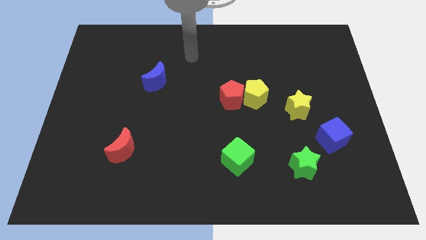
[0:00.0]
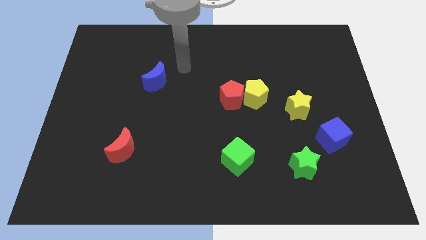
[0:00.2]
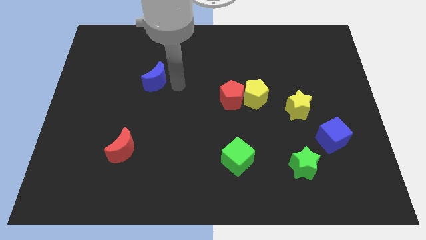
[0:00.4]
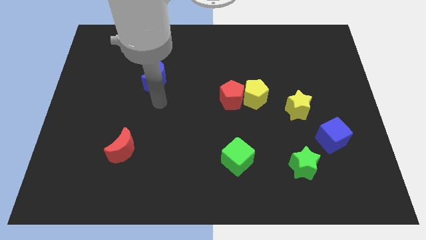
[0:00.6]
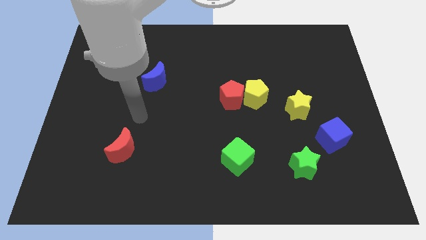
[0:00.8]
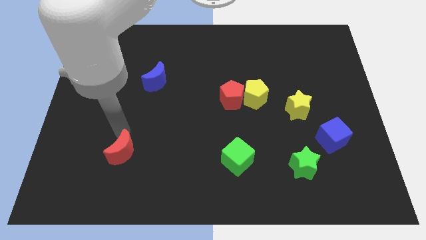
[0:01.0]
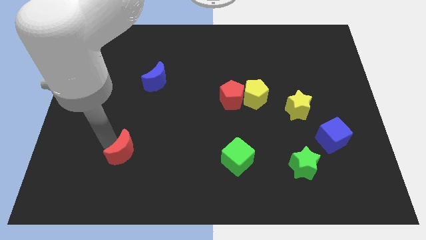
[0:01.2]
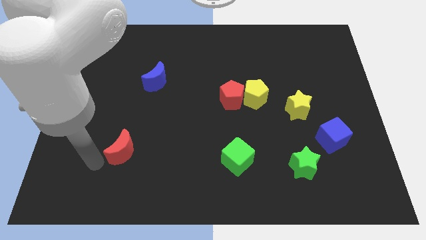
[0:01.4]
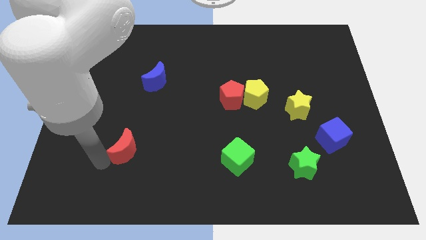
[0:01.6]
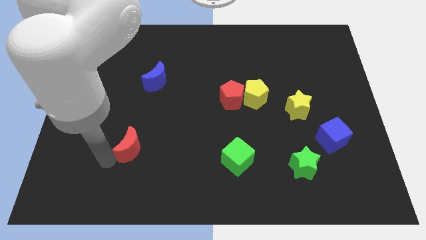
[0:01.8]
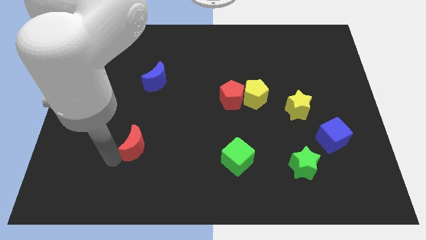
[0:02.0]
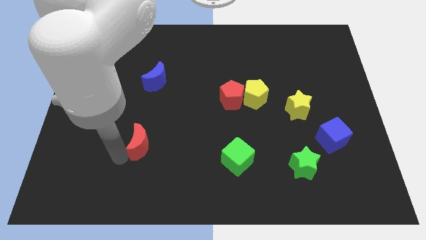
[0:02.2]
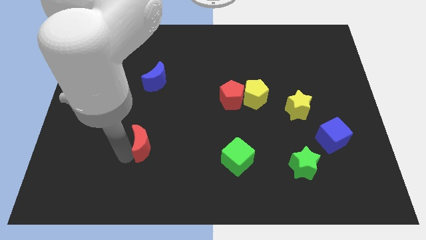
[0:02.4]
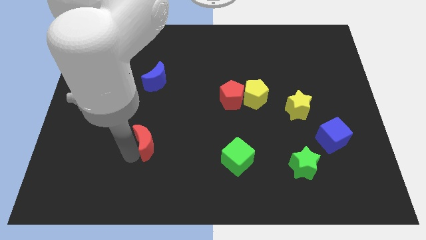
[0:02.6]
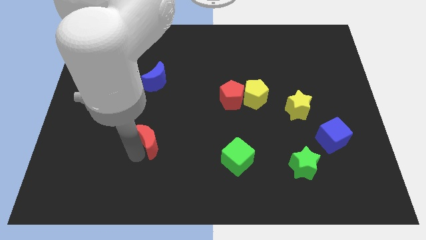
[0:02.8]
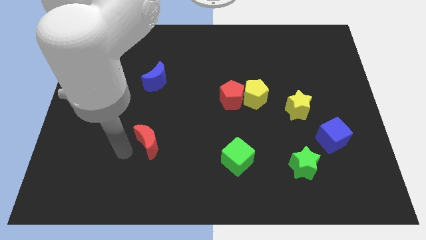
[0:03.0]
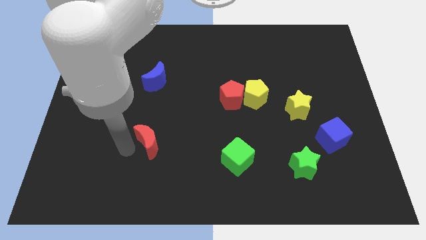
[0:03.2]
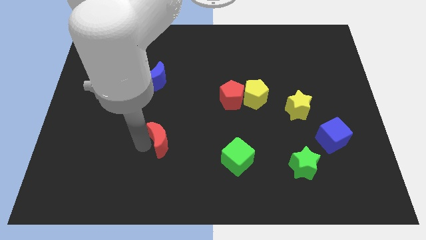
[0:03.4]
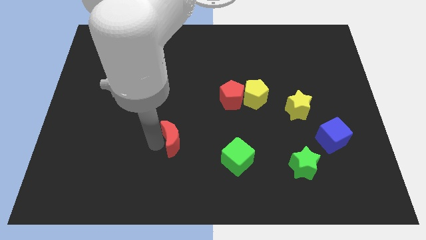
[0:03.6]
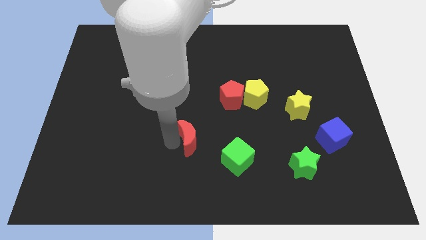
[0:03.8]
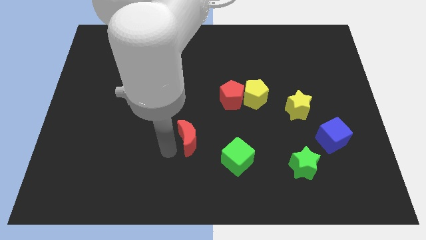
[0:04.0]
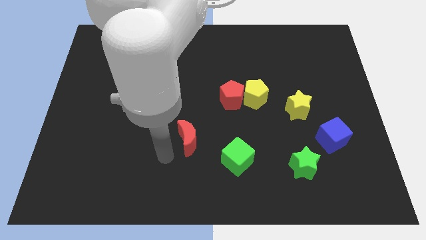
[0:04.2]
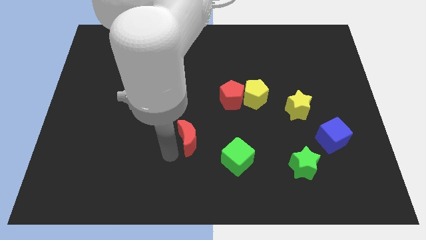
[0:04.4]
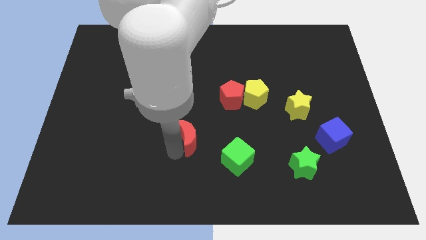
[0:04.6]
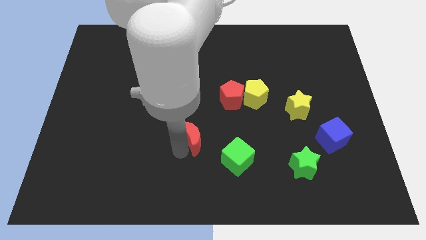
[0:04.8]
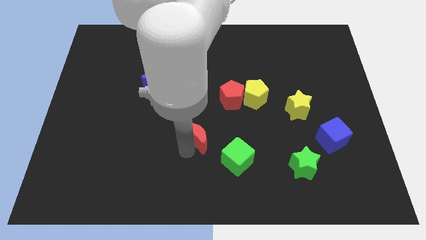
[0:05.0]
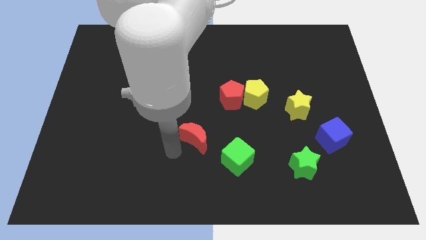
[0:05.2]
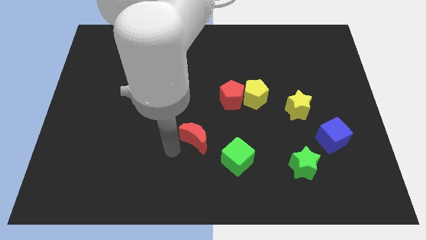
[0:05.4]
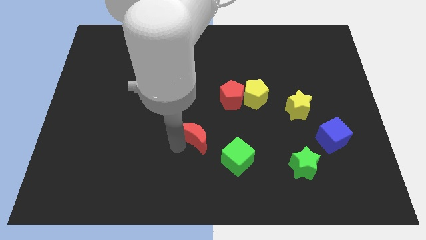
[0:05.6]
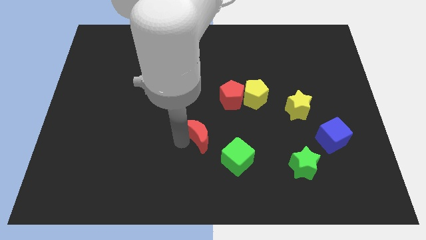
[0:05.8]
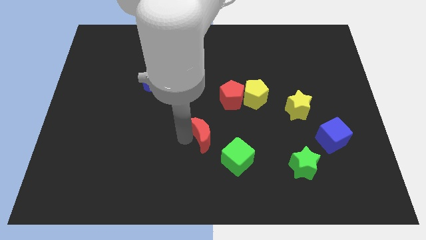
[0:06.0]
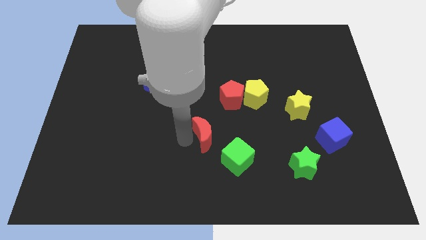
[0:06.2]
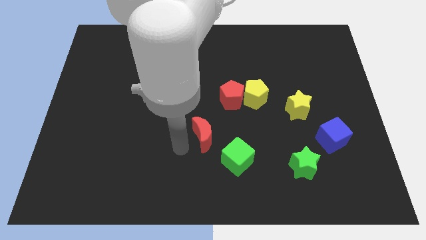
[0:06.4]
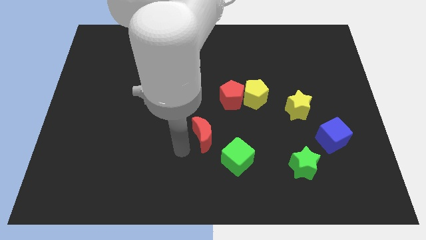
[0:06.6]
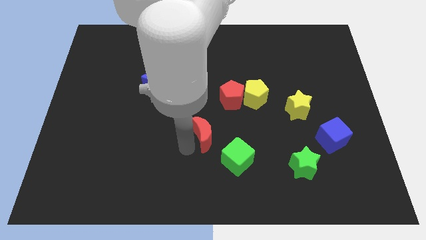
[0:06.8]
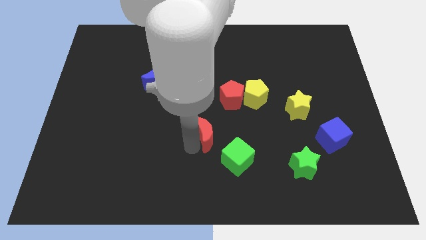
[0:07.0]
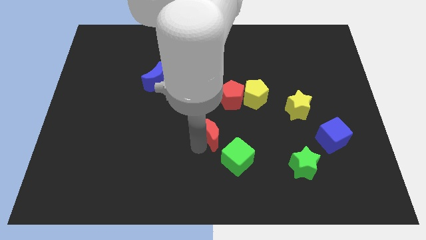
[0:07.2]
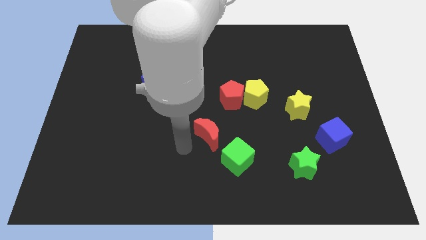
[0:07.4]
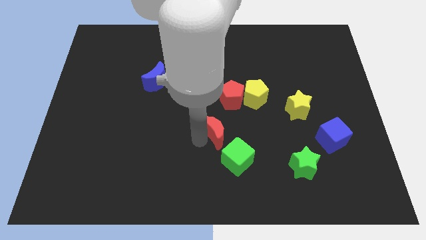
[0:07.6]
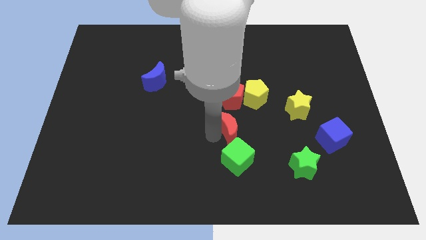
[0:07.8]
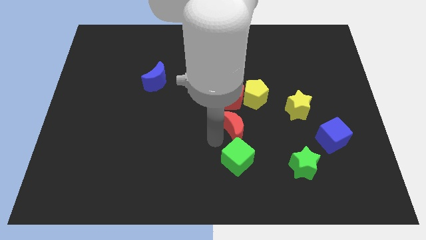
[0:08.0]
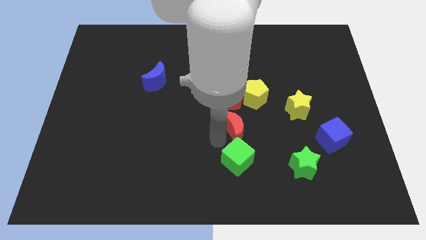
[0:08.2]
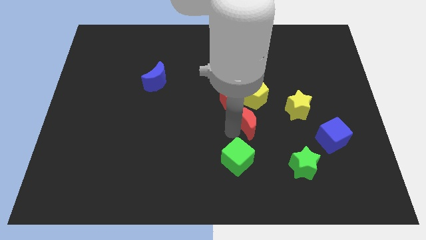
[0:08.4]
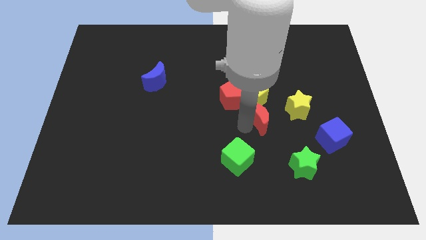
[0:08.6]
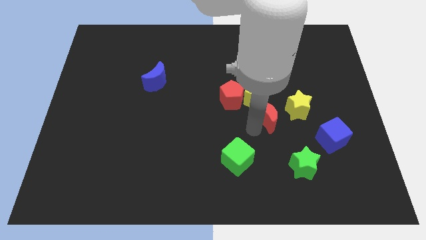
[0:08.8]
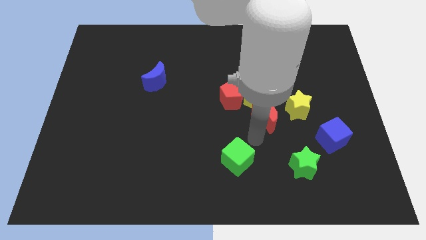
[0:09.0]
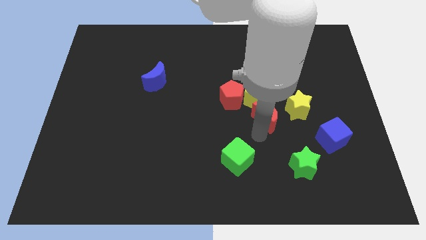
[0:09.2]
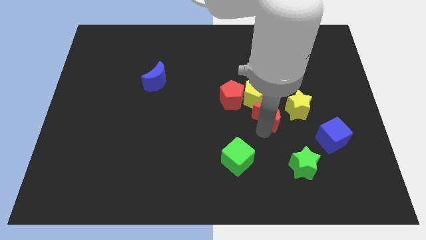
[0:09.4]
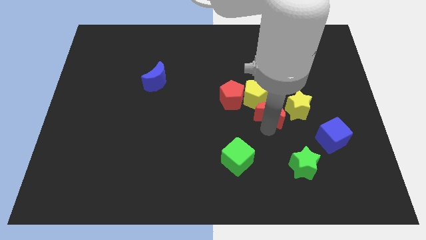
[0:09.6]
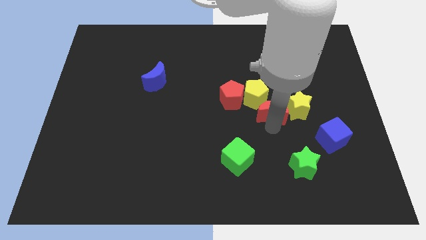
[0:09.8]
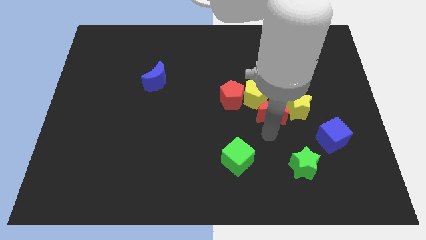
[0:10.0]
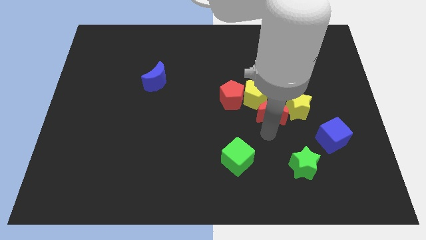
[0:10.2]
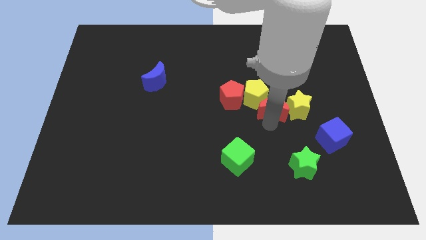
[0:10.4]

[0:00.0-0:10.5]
slide the red moon just right of the yellow pentagon

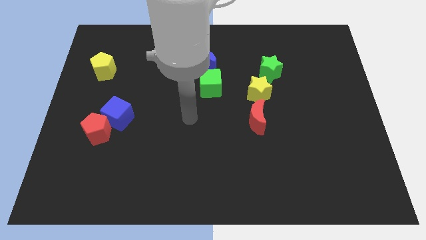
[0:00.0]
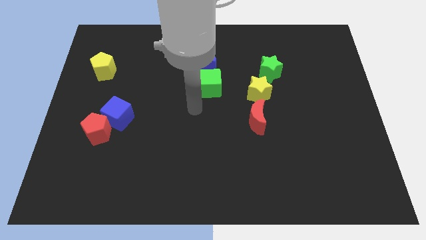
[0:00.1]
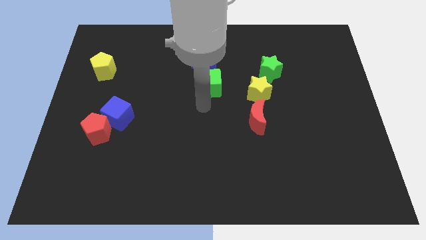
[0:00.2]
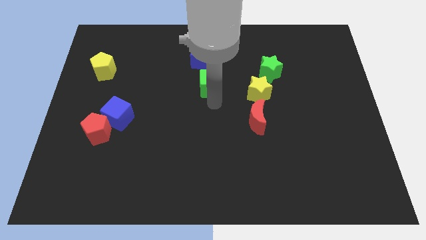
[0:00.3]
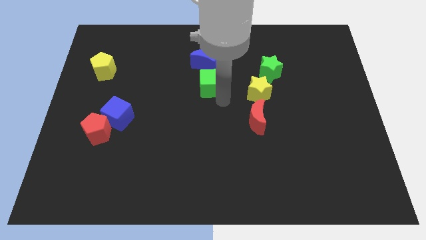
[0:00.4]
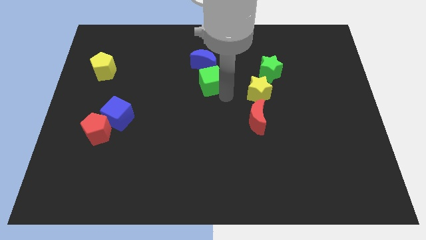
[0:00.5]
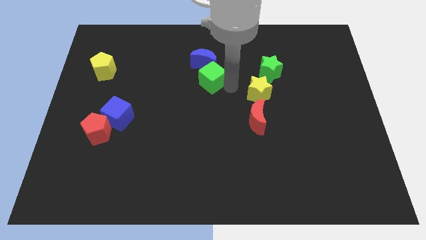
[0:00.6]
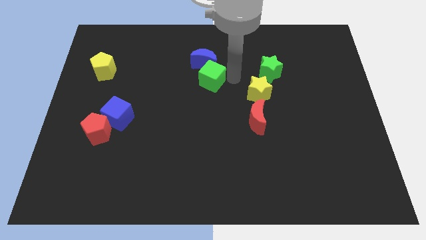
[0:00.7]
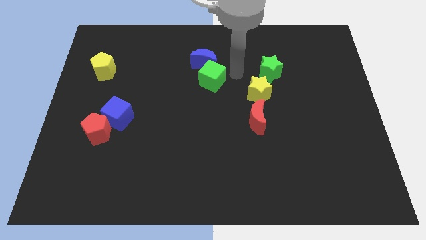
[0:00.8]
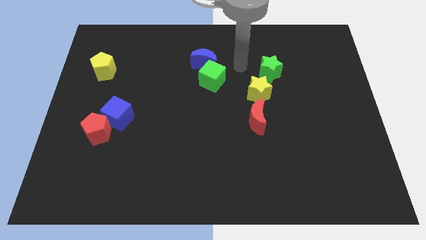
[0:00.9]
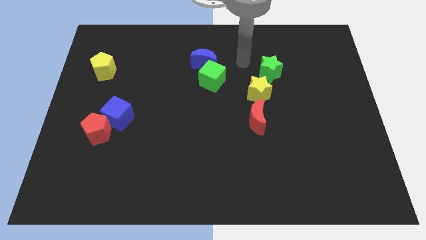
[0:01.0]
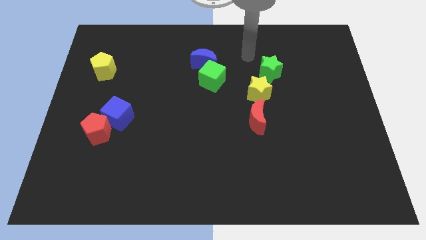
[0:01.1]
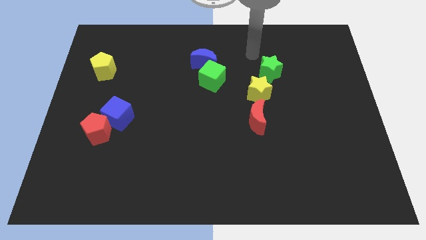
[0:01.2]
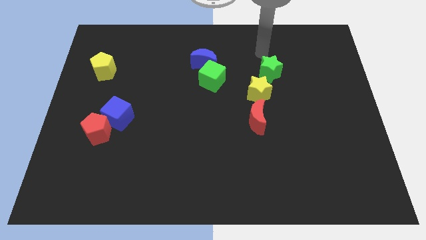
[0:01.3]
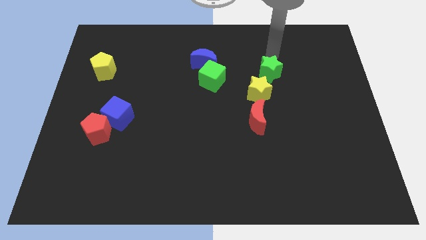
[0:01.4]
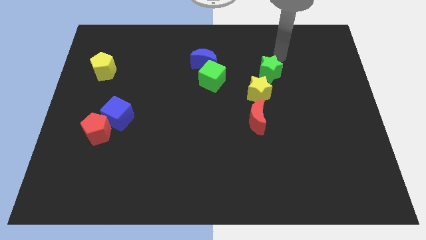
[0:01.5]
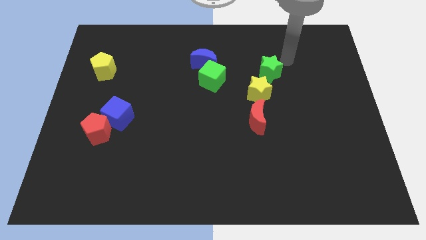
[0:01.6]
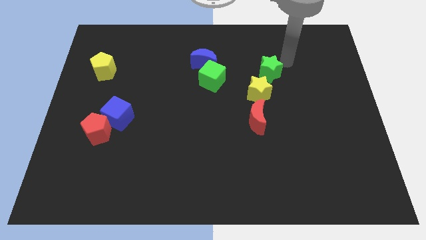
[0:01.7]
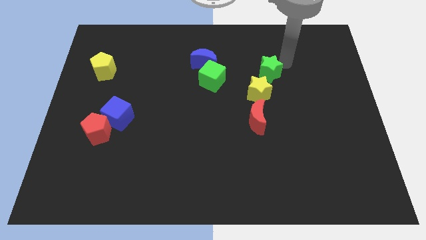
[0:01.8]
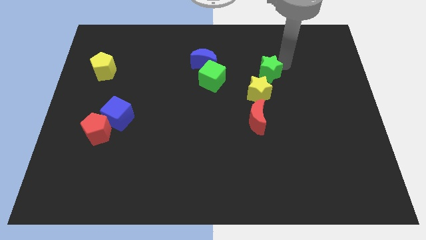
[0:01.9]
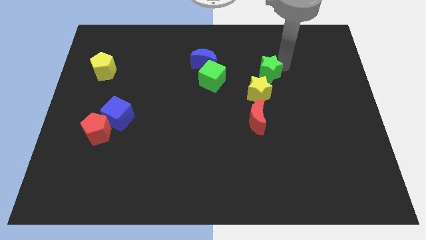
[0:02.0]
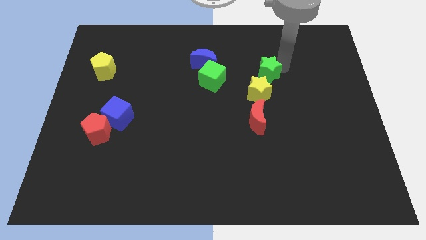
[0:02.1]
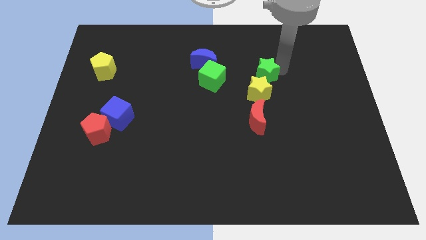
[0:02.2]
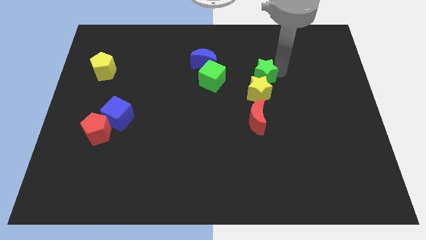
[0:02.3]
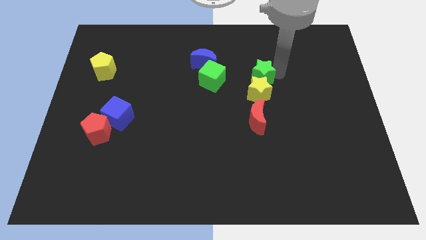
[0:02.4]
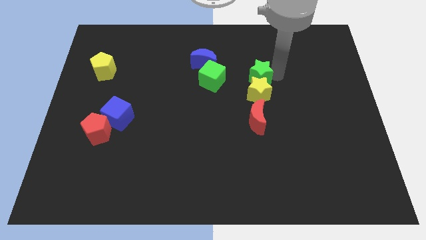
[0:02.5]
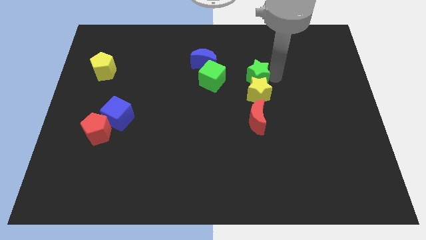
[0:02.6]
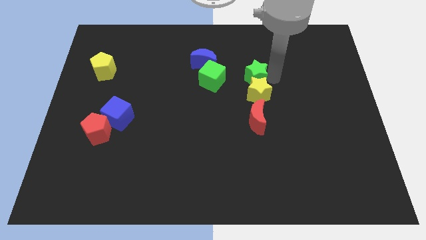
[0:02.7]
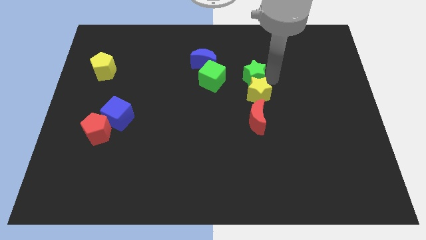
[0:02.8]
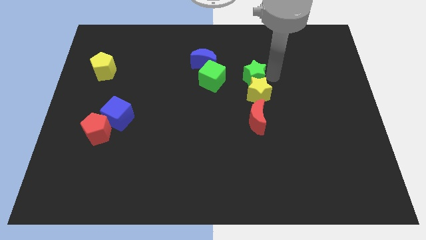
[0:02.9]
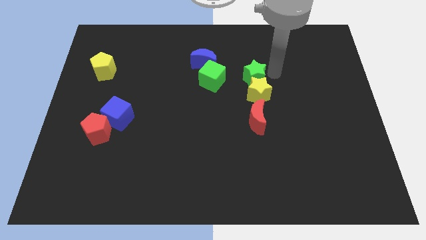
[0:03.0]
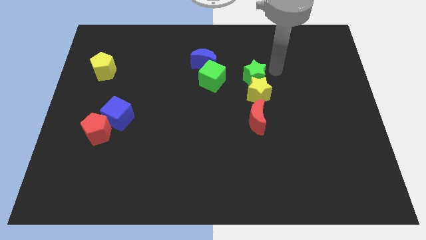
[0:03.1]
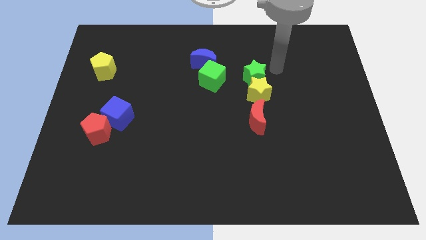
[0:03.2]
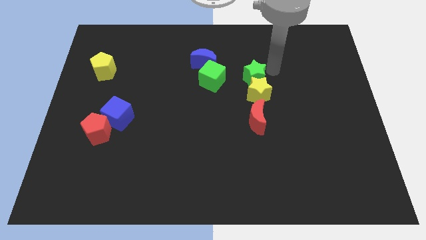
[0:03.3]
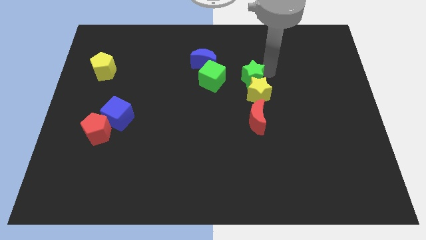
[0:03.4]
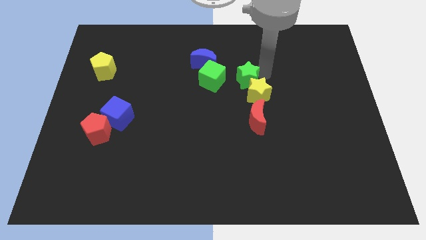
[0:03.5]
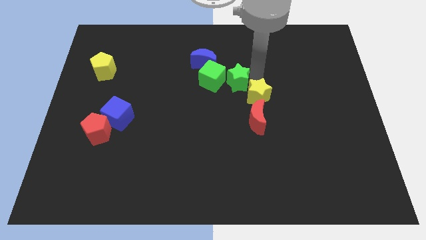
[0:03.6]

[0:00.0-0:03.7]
slide the green star to the left of the yellow star
